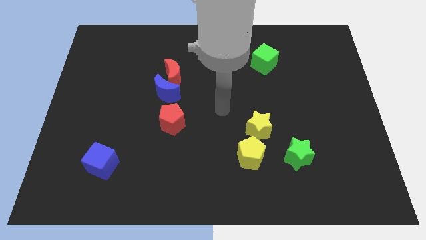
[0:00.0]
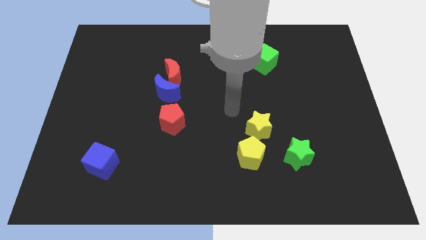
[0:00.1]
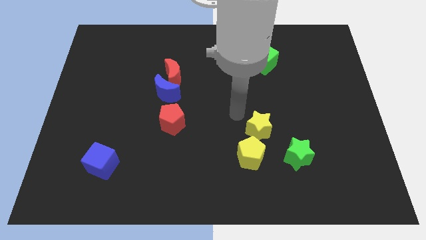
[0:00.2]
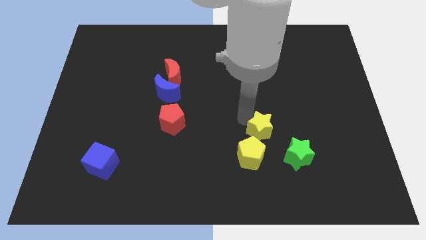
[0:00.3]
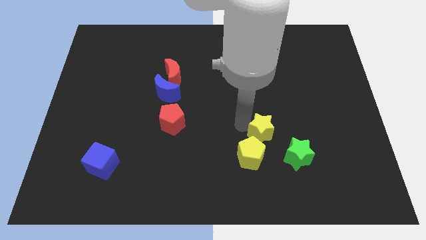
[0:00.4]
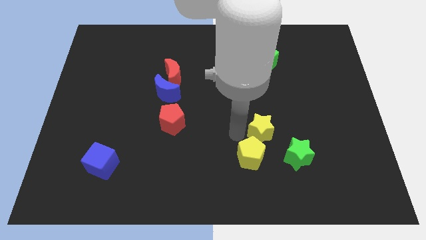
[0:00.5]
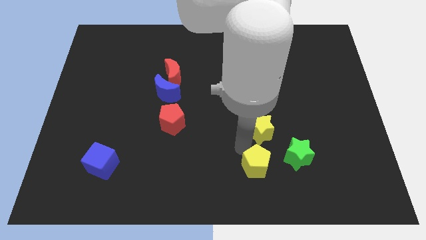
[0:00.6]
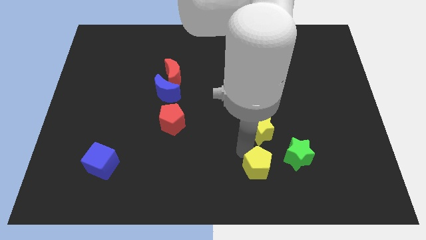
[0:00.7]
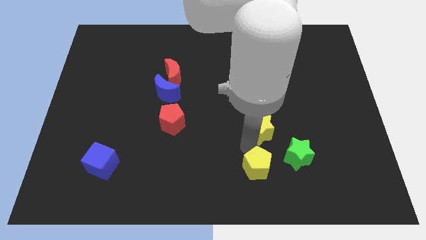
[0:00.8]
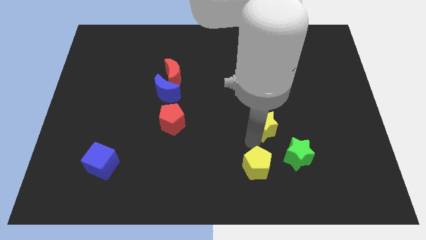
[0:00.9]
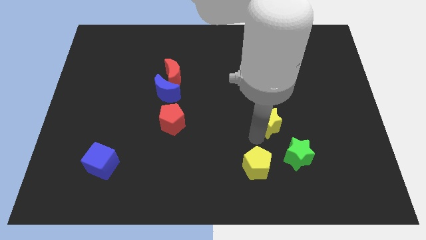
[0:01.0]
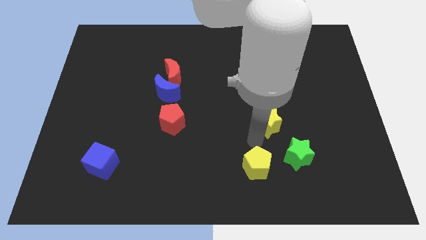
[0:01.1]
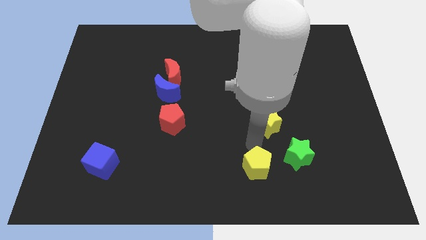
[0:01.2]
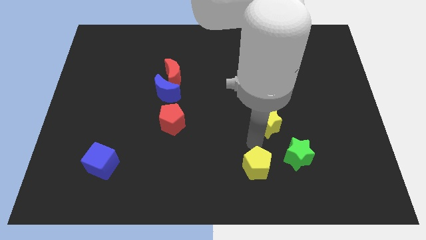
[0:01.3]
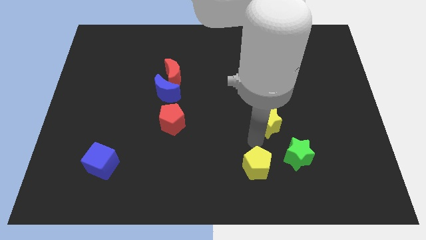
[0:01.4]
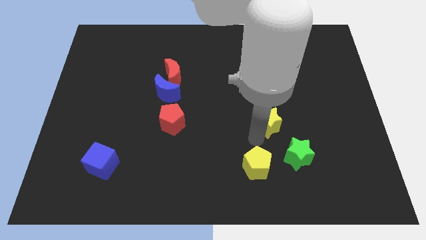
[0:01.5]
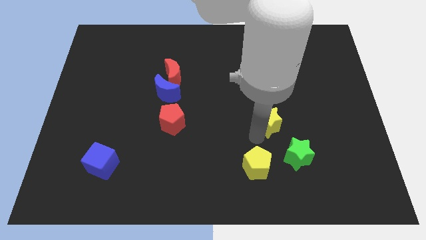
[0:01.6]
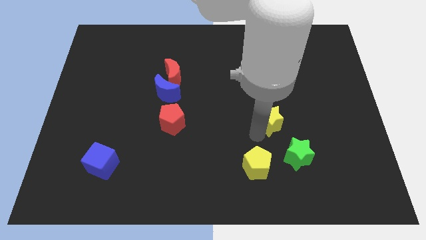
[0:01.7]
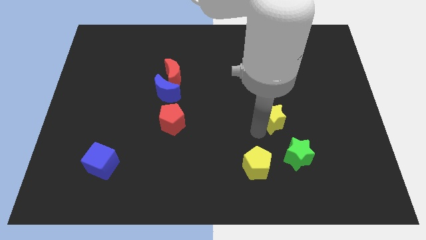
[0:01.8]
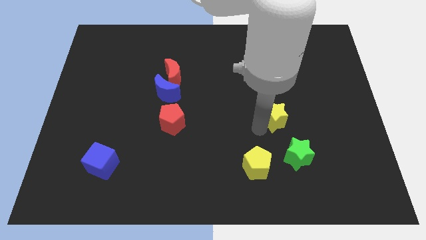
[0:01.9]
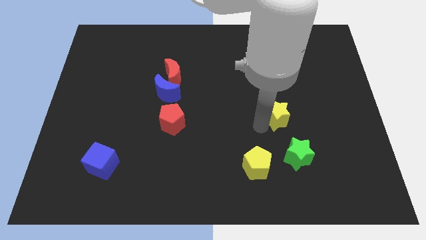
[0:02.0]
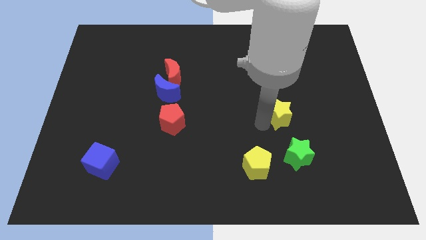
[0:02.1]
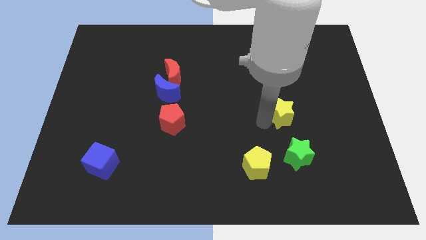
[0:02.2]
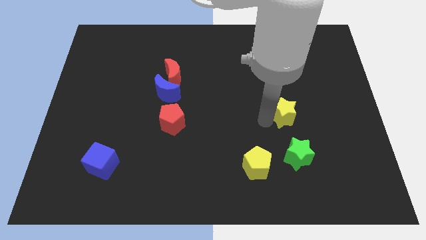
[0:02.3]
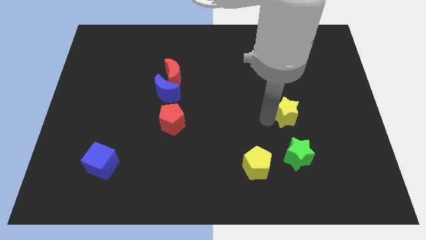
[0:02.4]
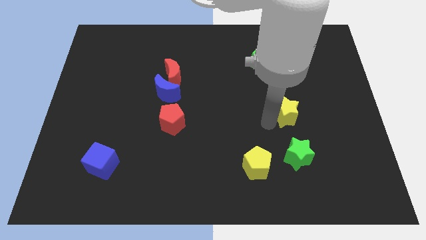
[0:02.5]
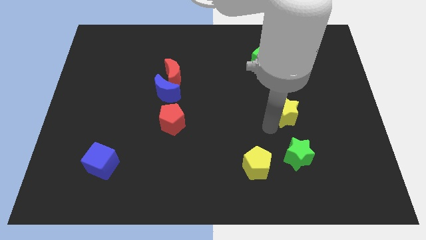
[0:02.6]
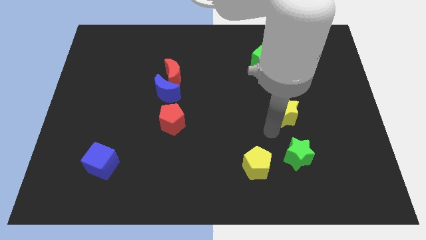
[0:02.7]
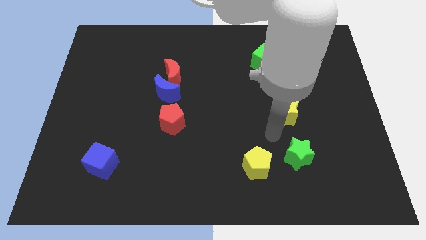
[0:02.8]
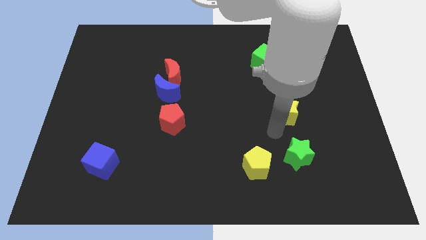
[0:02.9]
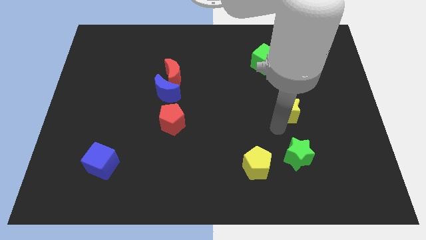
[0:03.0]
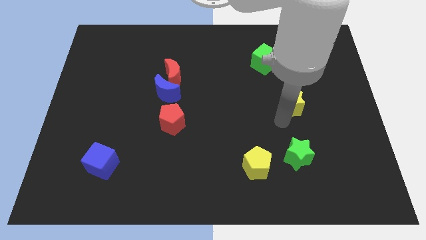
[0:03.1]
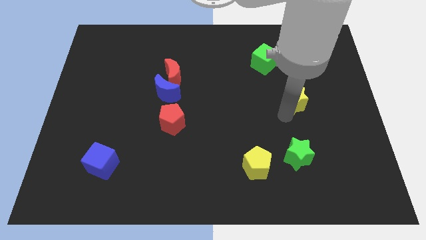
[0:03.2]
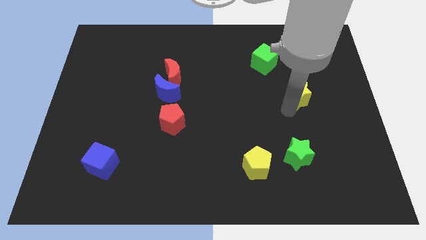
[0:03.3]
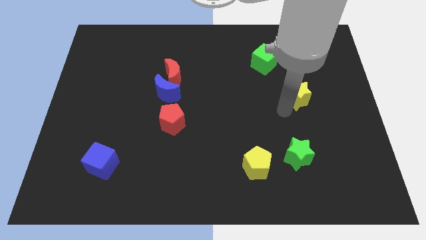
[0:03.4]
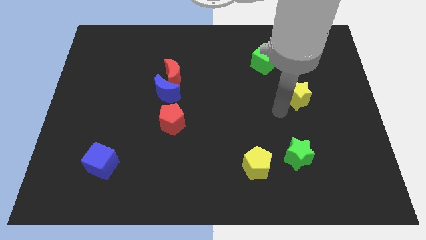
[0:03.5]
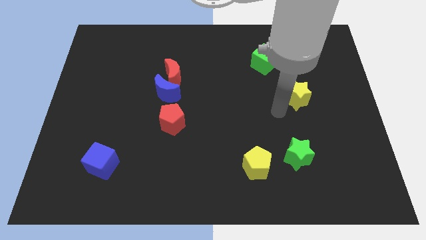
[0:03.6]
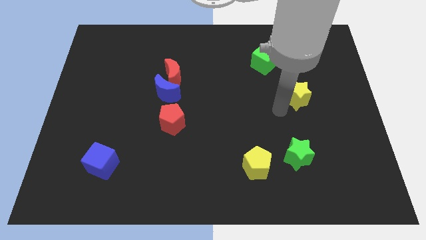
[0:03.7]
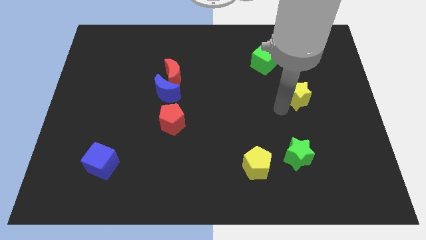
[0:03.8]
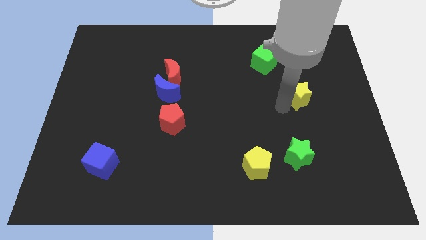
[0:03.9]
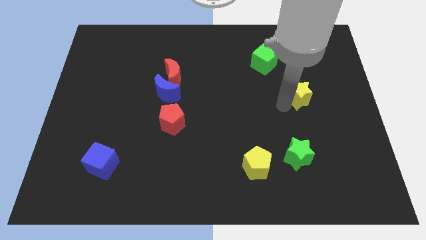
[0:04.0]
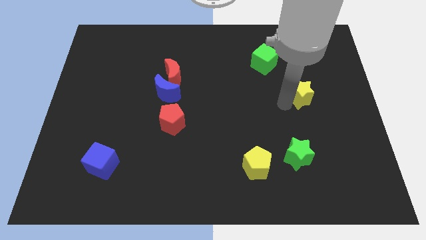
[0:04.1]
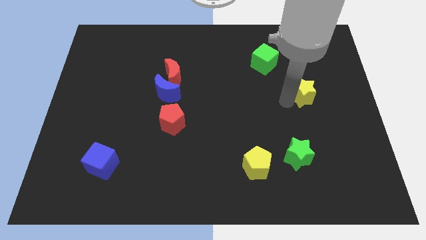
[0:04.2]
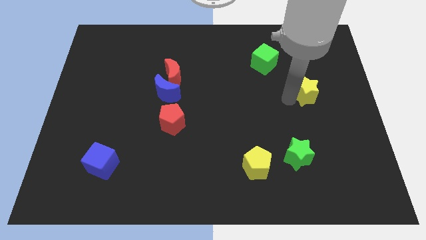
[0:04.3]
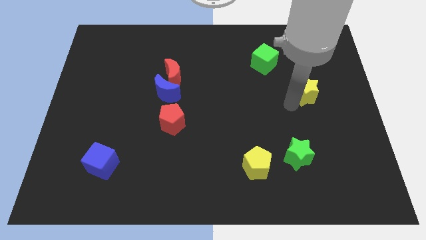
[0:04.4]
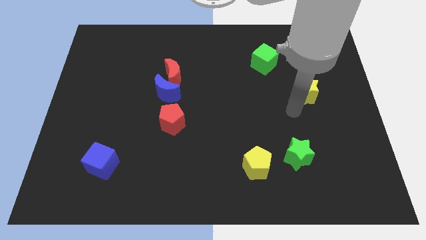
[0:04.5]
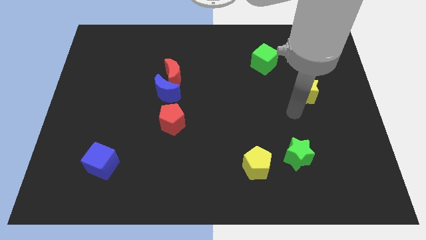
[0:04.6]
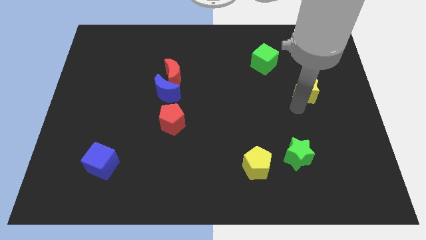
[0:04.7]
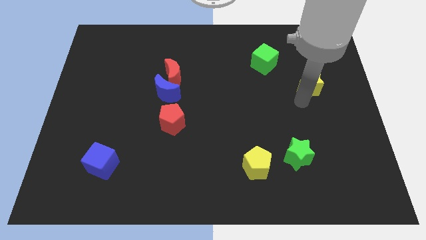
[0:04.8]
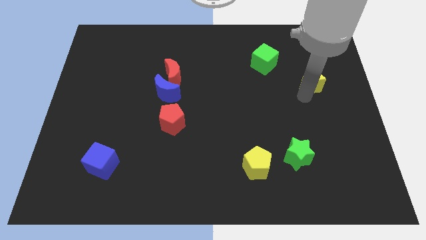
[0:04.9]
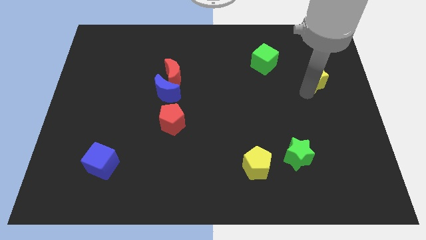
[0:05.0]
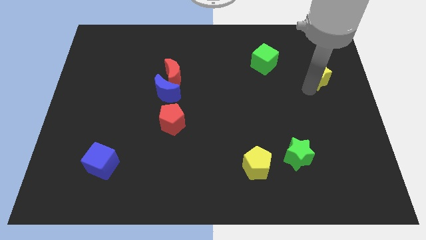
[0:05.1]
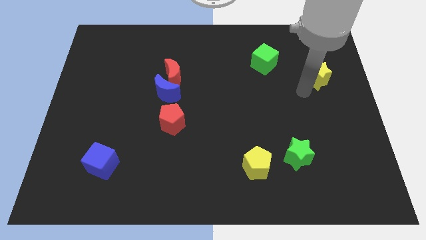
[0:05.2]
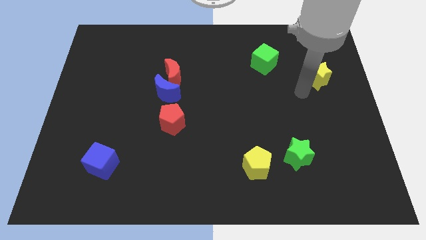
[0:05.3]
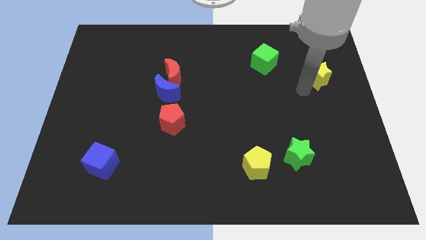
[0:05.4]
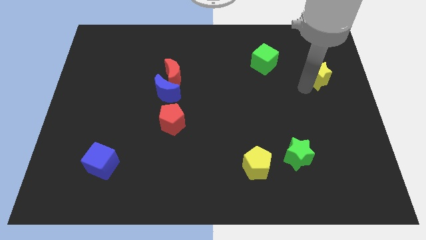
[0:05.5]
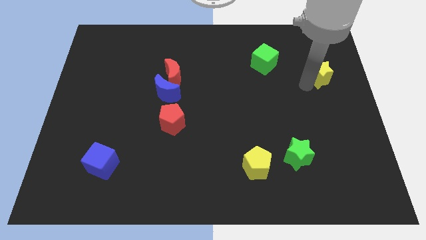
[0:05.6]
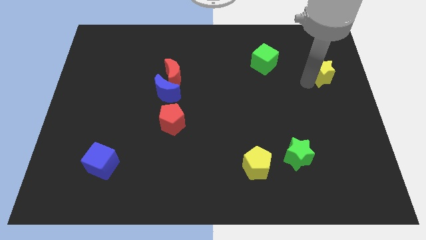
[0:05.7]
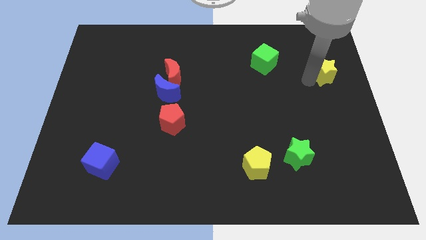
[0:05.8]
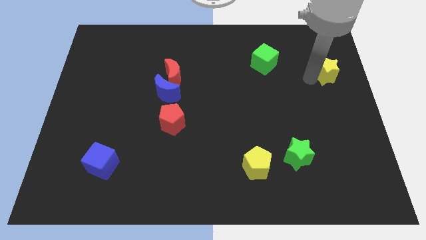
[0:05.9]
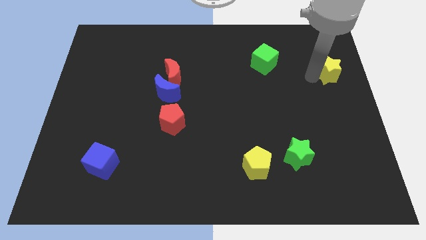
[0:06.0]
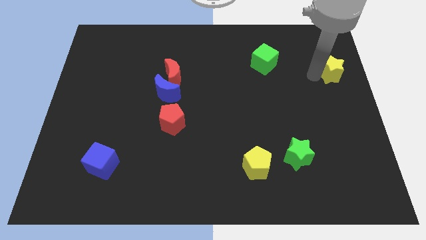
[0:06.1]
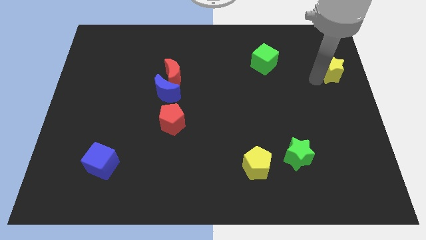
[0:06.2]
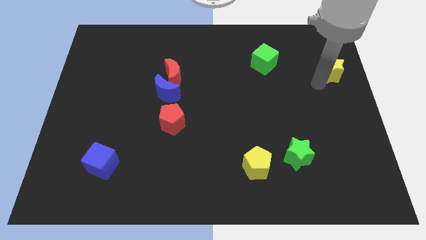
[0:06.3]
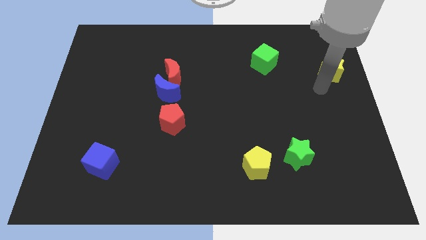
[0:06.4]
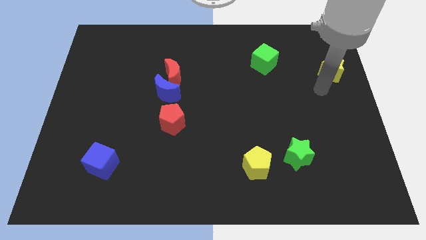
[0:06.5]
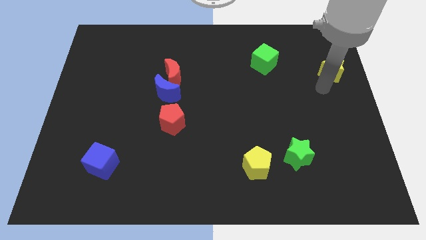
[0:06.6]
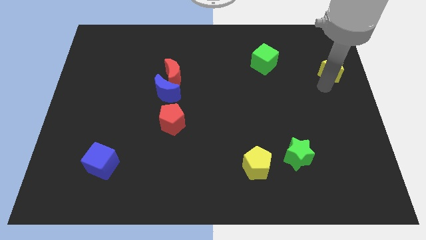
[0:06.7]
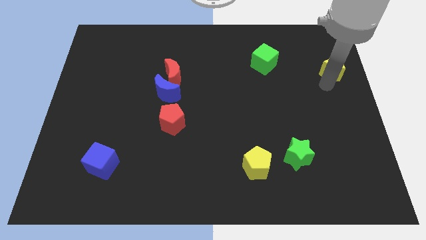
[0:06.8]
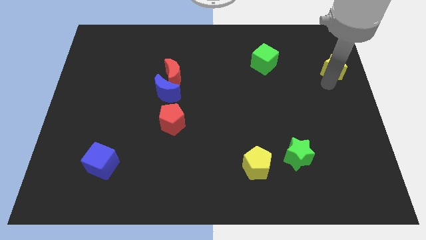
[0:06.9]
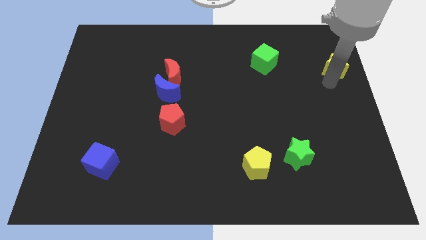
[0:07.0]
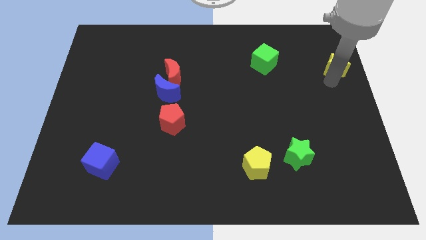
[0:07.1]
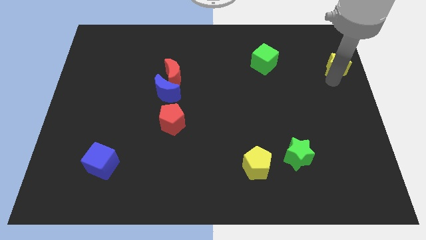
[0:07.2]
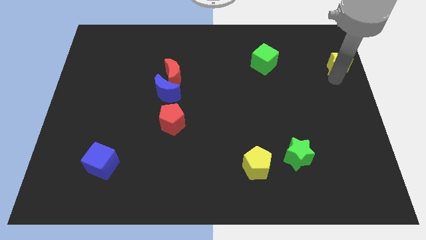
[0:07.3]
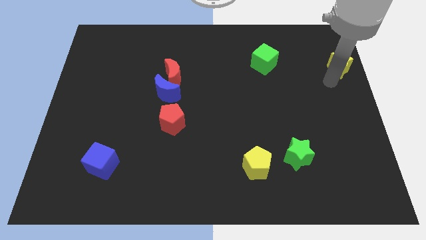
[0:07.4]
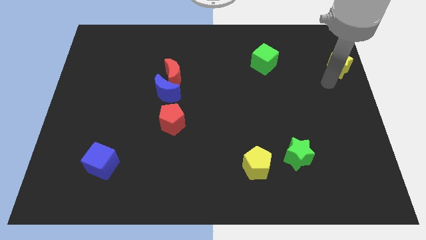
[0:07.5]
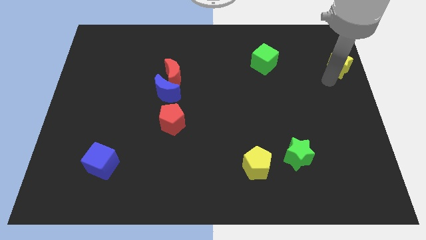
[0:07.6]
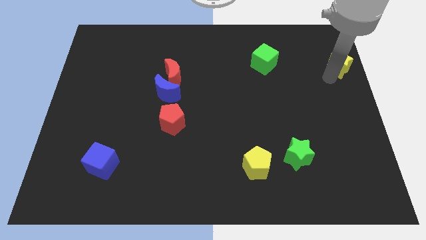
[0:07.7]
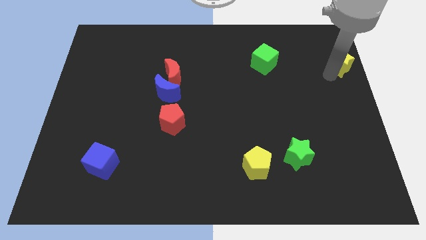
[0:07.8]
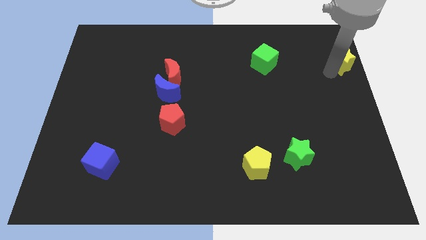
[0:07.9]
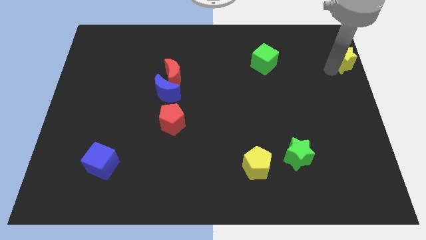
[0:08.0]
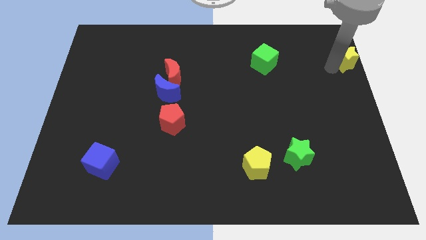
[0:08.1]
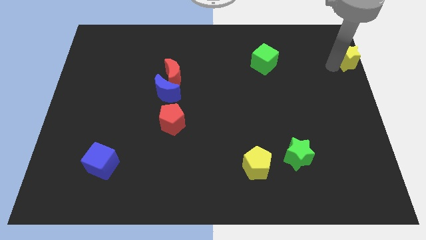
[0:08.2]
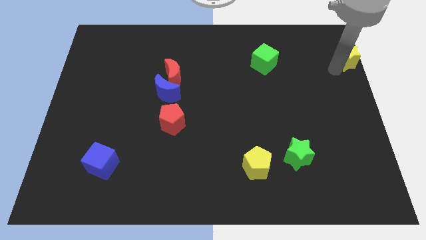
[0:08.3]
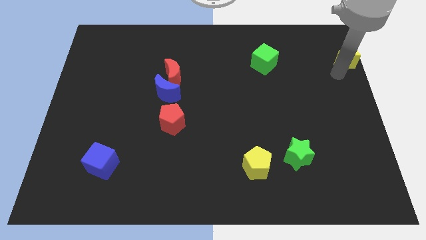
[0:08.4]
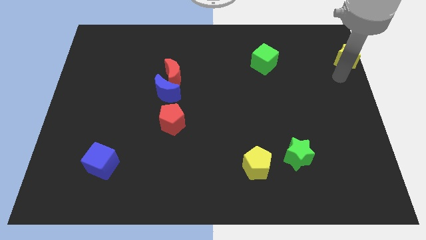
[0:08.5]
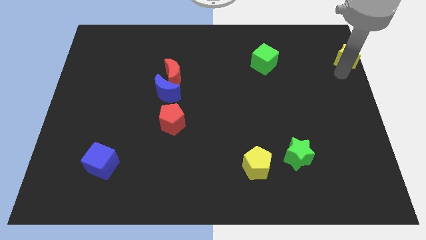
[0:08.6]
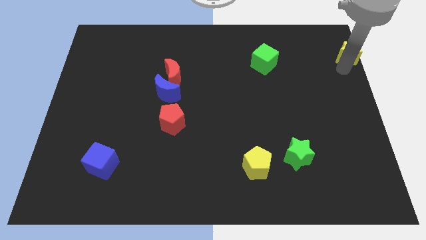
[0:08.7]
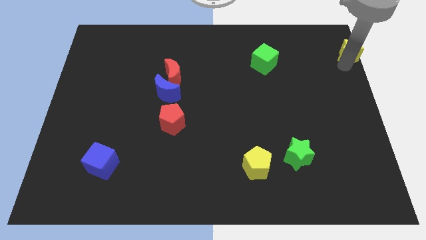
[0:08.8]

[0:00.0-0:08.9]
push the yellow star to the top right corner
